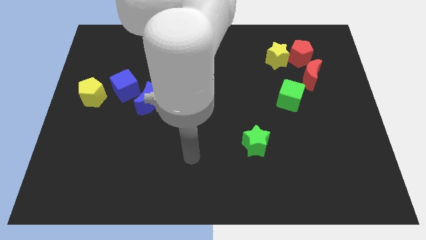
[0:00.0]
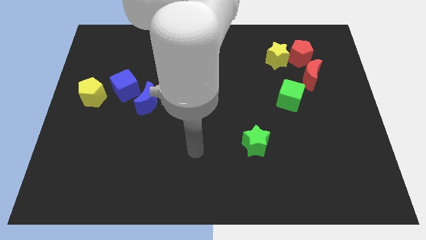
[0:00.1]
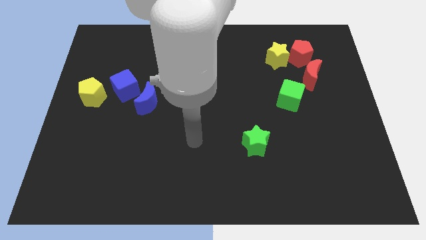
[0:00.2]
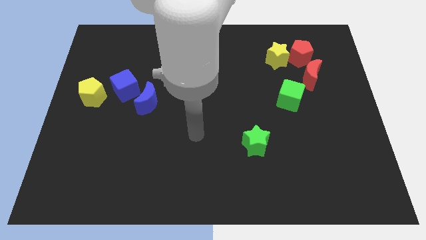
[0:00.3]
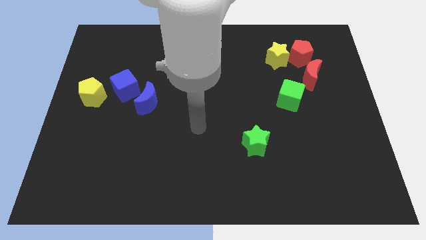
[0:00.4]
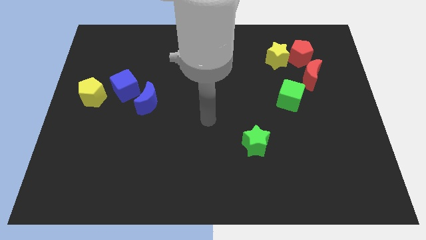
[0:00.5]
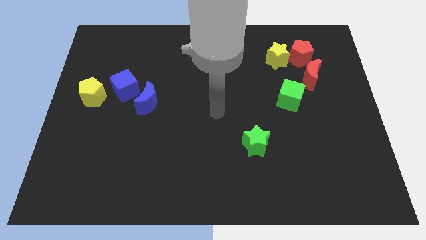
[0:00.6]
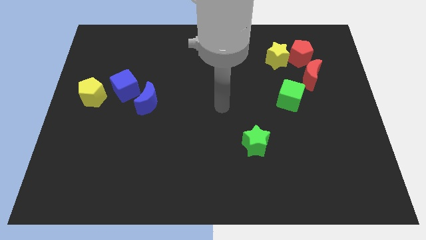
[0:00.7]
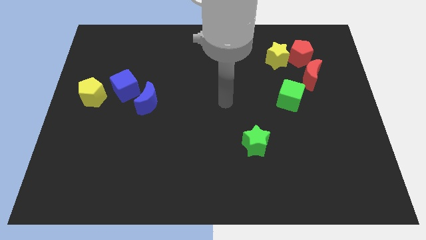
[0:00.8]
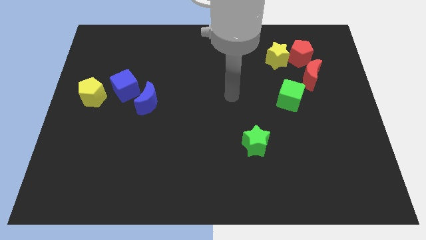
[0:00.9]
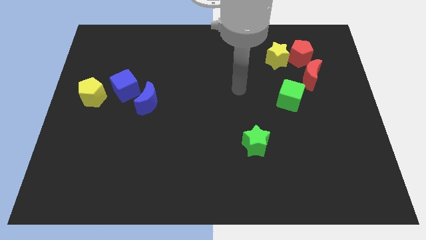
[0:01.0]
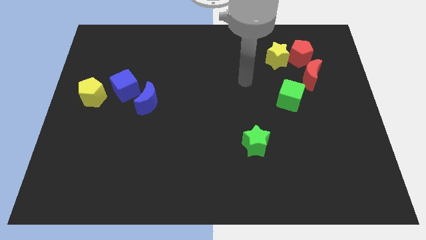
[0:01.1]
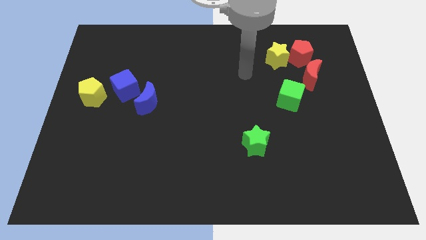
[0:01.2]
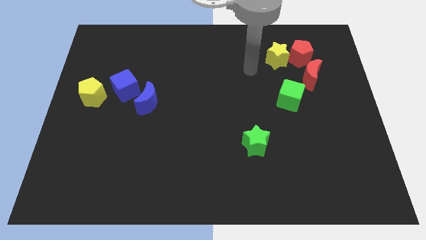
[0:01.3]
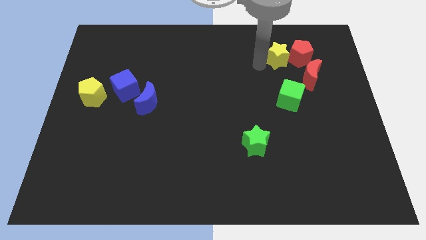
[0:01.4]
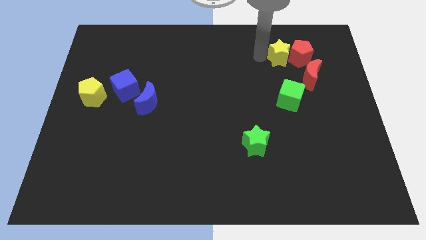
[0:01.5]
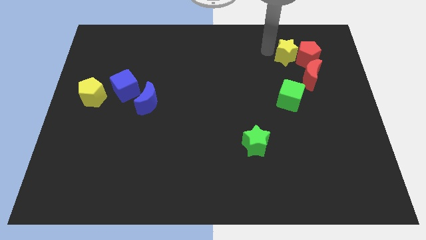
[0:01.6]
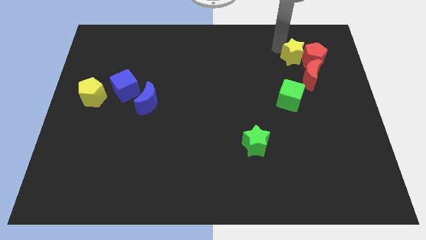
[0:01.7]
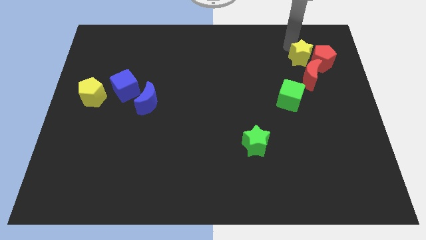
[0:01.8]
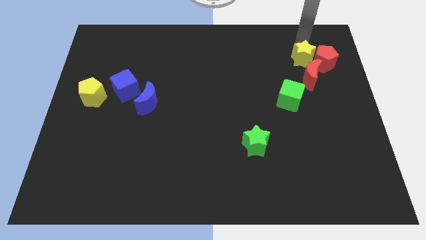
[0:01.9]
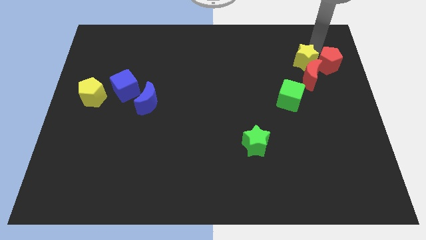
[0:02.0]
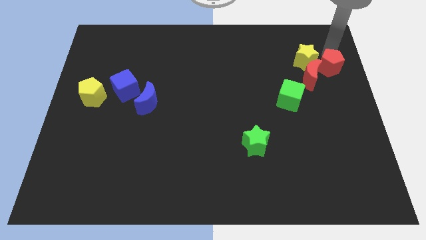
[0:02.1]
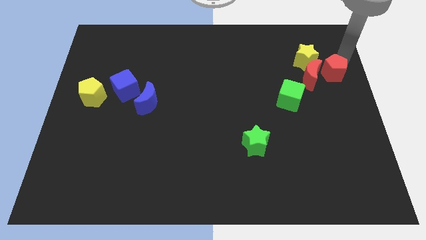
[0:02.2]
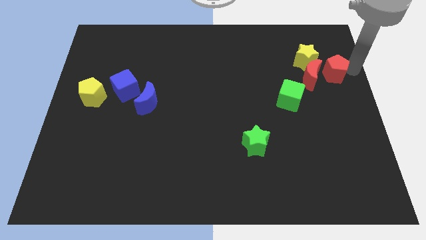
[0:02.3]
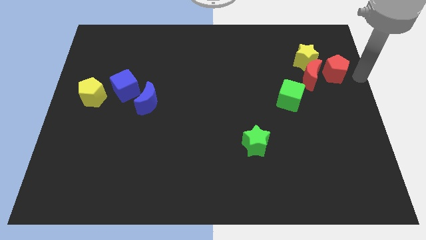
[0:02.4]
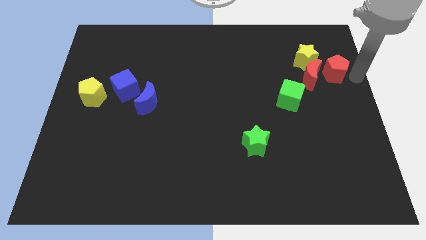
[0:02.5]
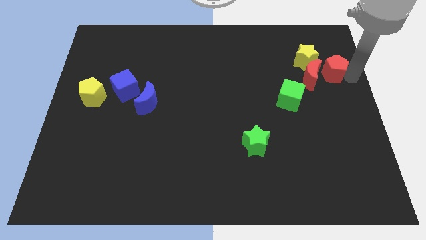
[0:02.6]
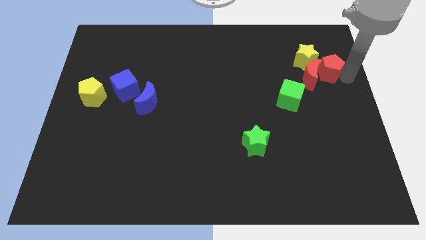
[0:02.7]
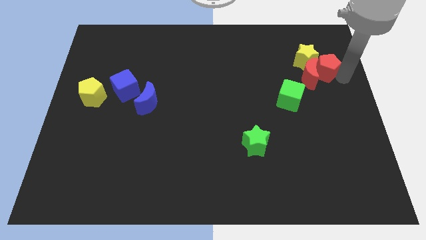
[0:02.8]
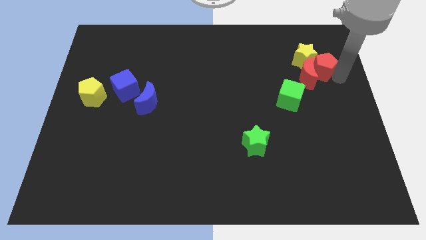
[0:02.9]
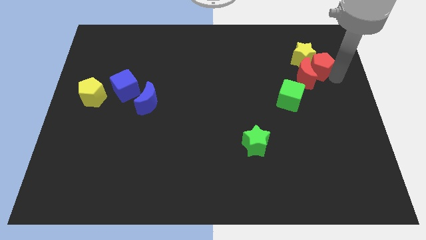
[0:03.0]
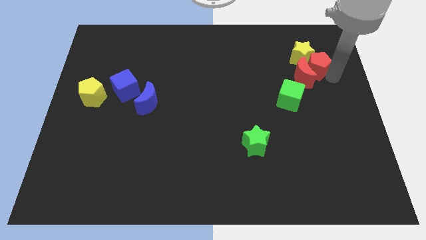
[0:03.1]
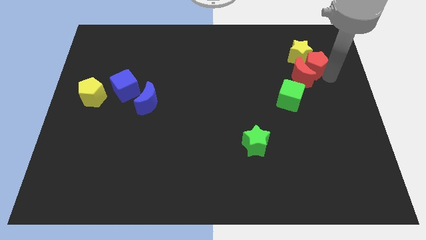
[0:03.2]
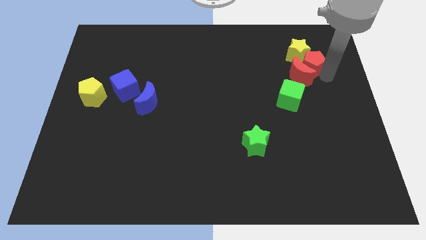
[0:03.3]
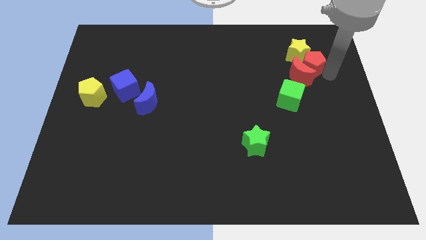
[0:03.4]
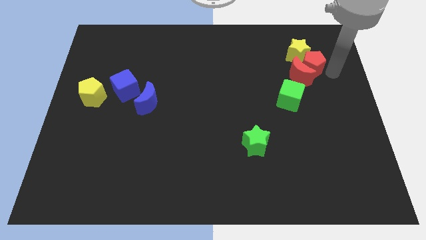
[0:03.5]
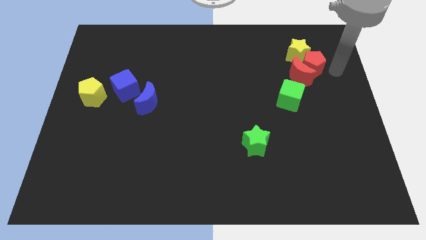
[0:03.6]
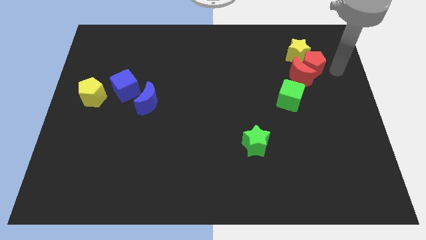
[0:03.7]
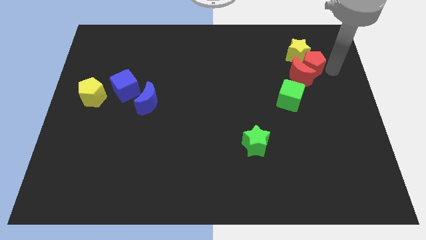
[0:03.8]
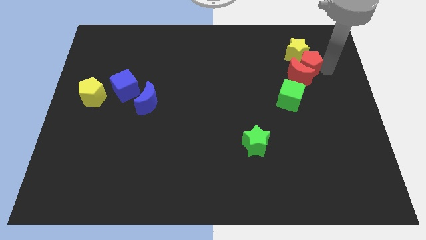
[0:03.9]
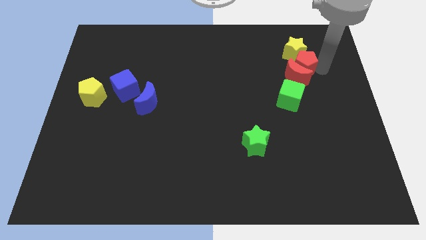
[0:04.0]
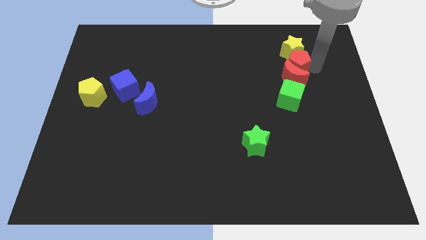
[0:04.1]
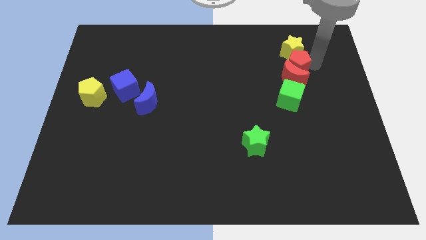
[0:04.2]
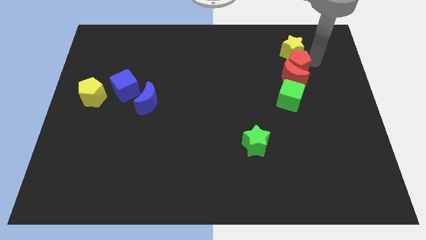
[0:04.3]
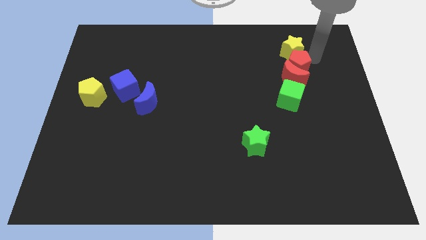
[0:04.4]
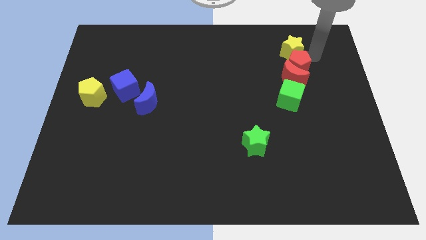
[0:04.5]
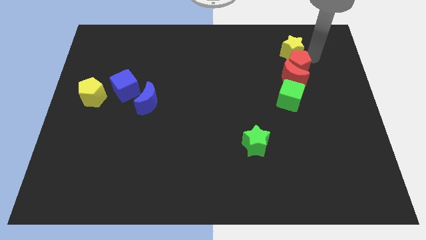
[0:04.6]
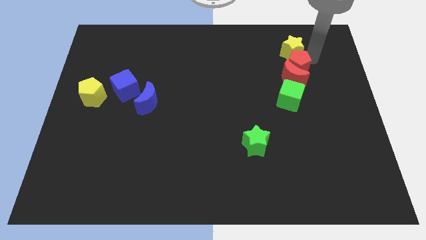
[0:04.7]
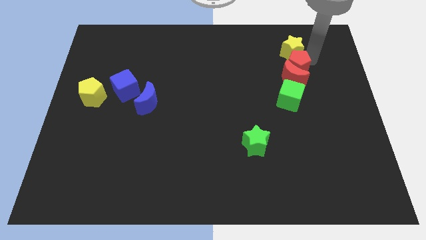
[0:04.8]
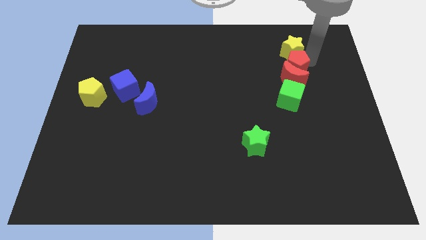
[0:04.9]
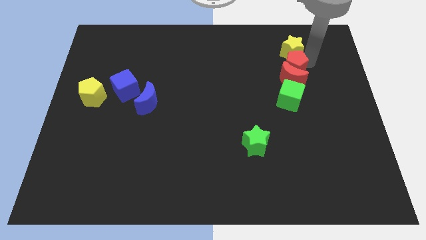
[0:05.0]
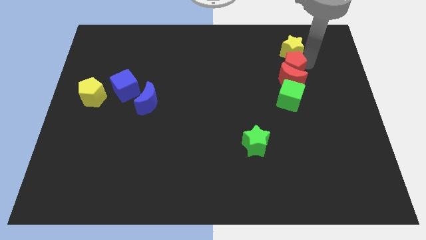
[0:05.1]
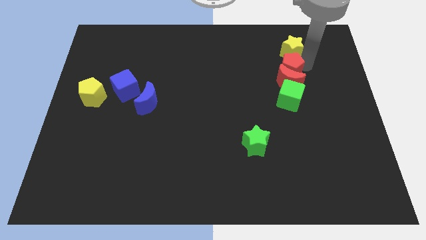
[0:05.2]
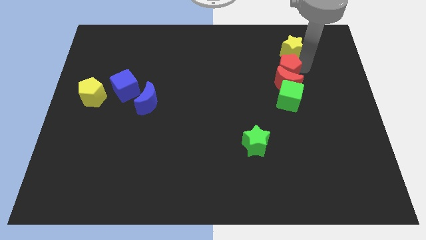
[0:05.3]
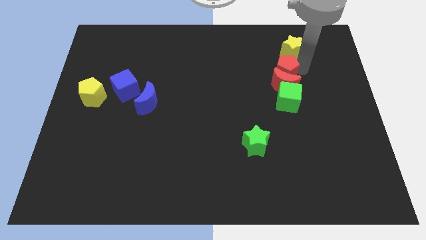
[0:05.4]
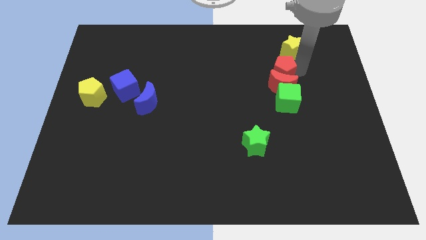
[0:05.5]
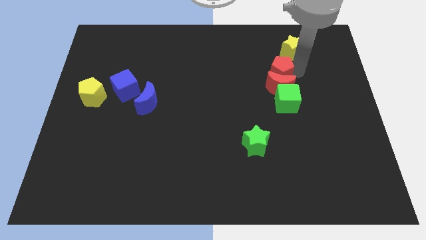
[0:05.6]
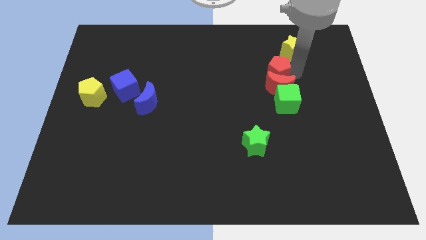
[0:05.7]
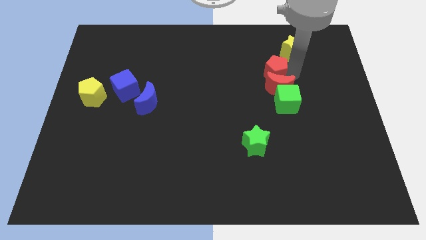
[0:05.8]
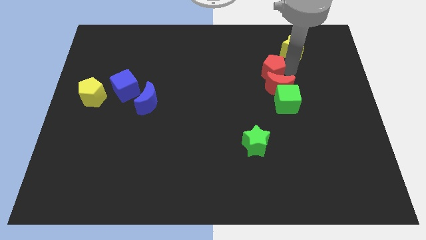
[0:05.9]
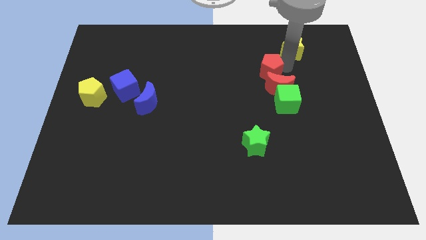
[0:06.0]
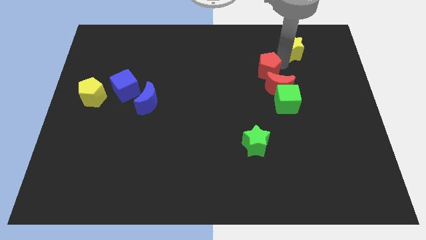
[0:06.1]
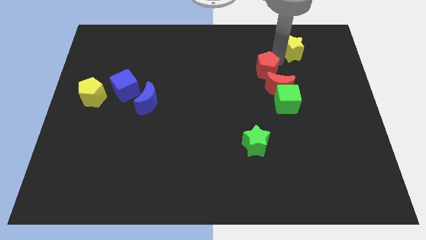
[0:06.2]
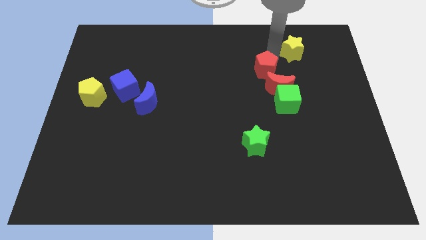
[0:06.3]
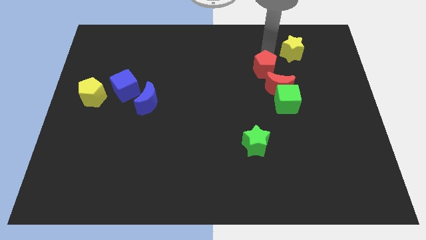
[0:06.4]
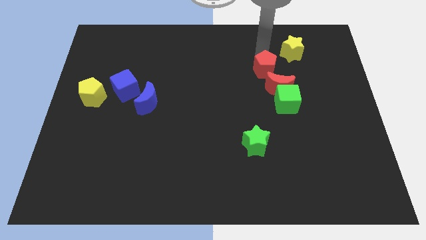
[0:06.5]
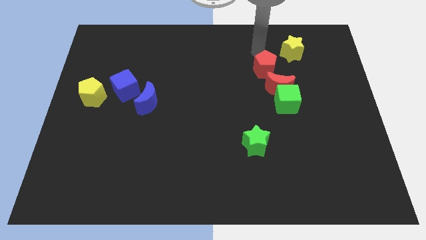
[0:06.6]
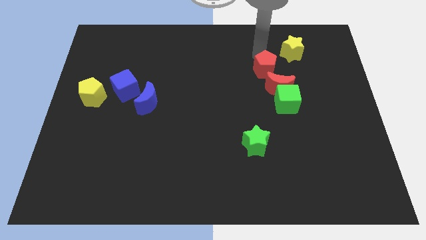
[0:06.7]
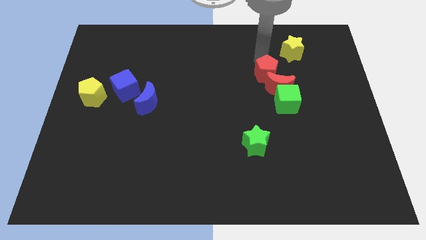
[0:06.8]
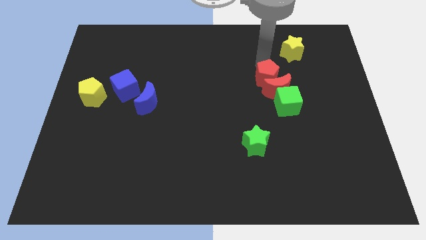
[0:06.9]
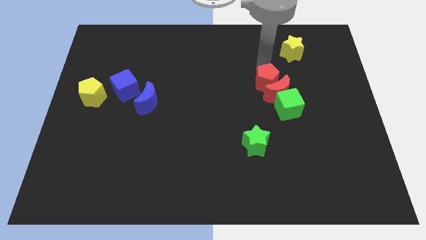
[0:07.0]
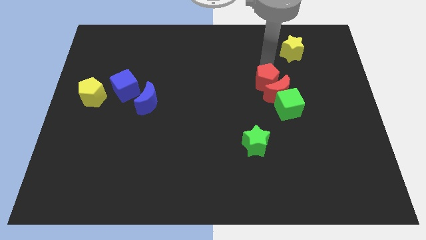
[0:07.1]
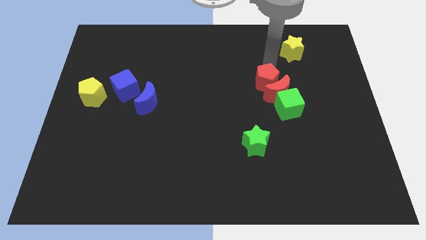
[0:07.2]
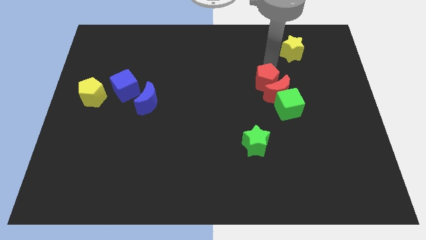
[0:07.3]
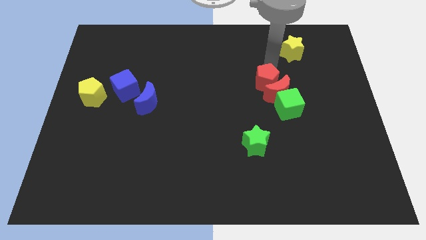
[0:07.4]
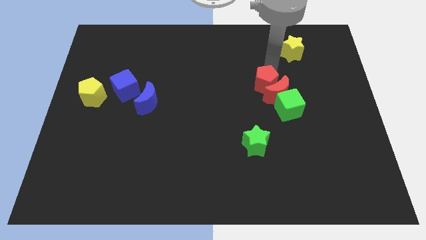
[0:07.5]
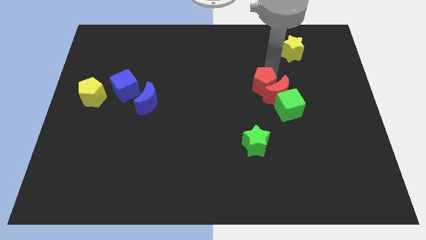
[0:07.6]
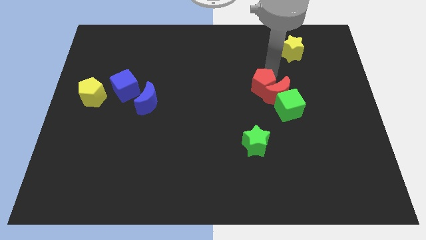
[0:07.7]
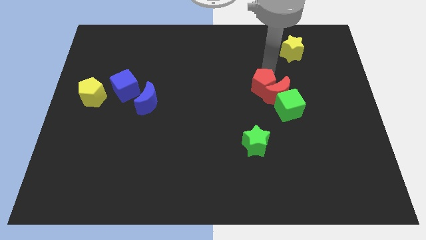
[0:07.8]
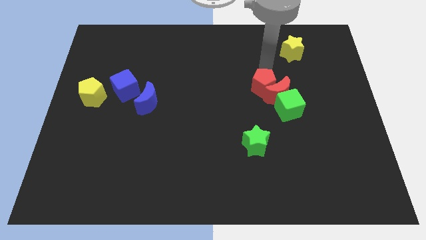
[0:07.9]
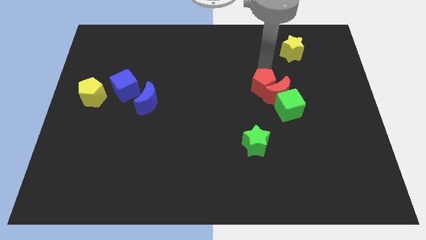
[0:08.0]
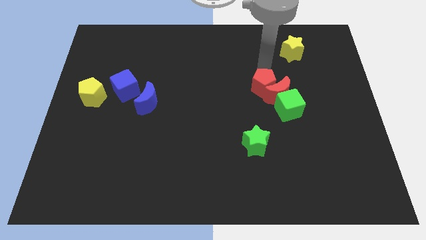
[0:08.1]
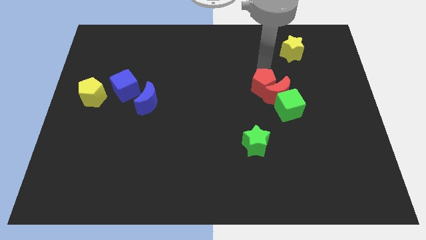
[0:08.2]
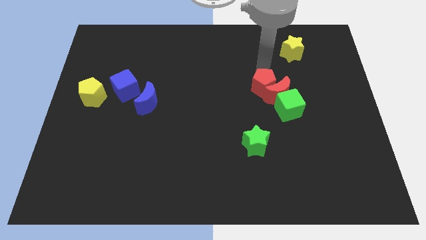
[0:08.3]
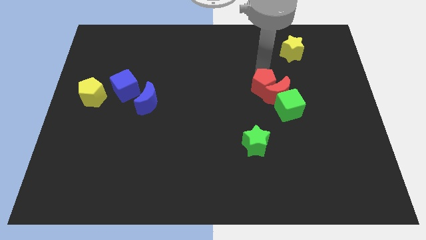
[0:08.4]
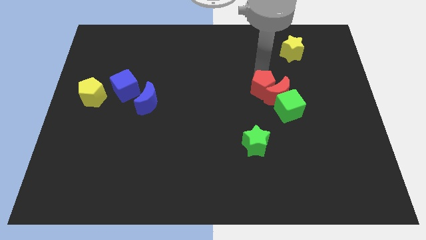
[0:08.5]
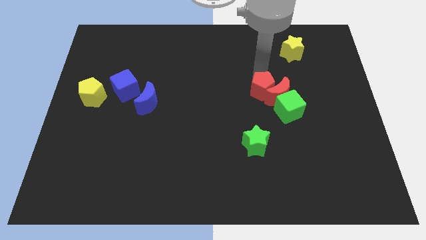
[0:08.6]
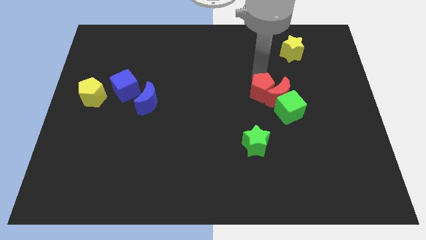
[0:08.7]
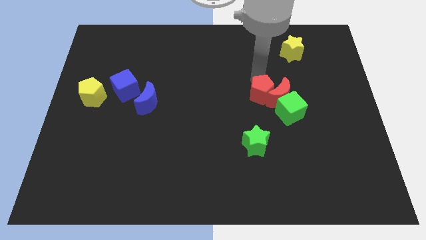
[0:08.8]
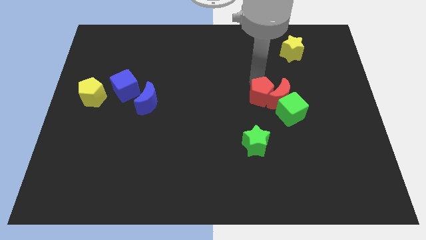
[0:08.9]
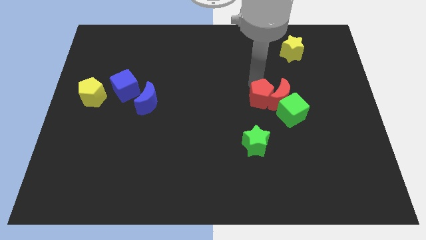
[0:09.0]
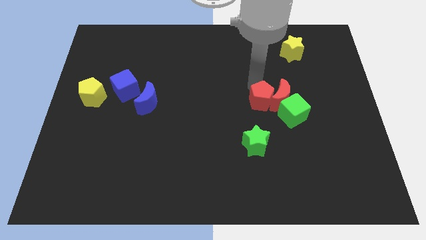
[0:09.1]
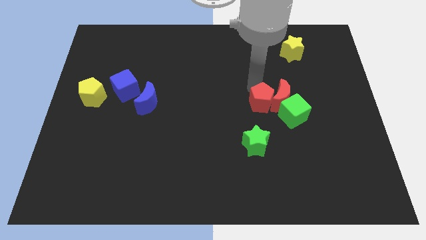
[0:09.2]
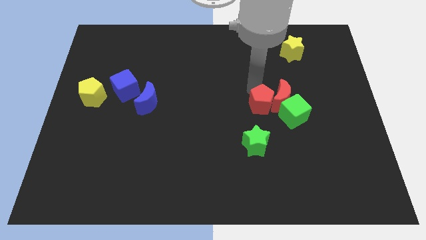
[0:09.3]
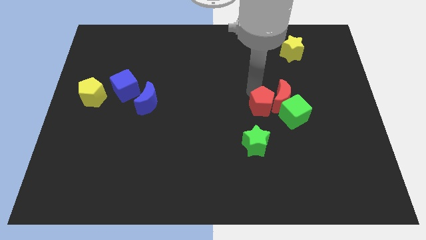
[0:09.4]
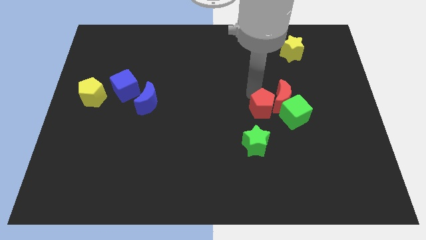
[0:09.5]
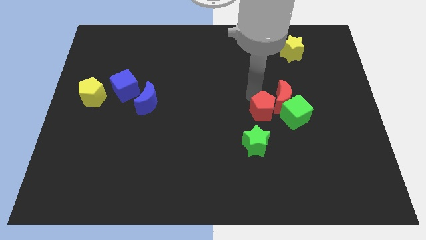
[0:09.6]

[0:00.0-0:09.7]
slide the red pentagon to the top right side of the green star
